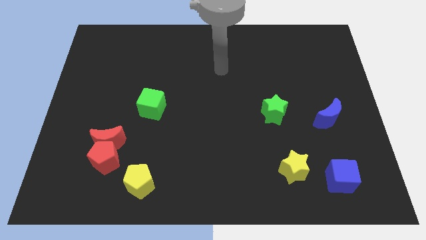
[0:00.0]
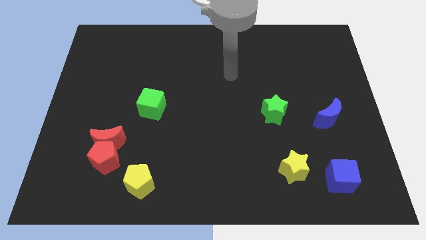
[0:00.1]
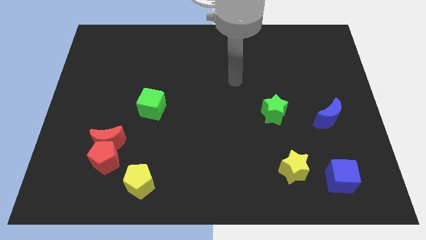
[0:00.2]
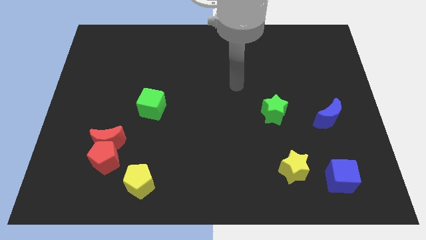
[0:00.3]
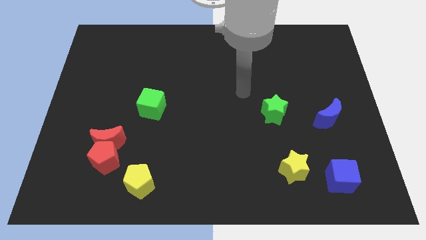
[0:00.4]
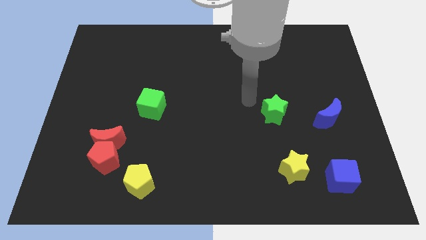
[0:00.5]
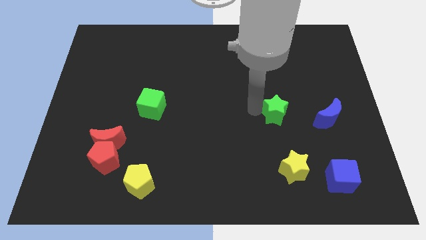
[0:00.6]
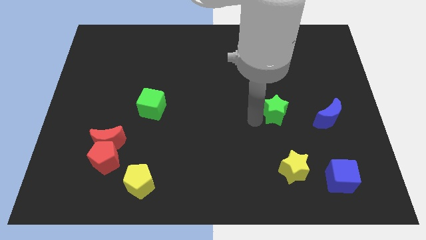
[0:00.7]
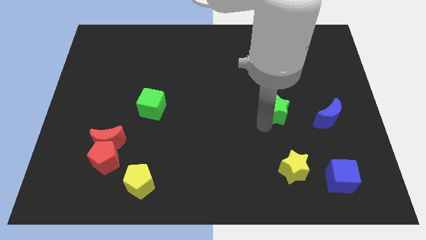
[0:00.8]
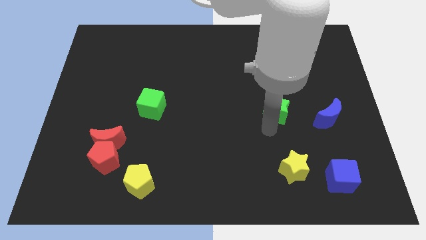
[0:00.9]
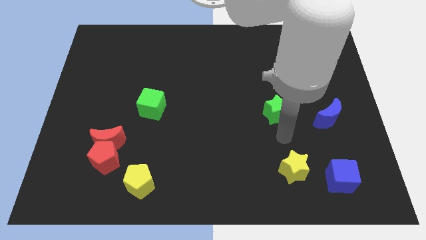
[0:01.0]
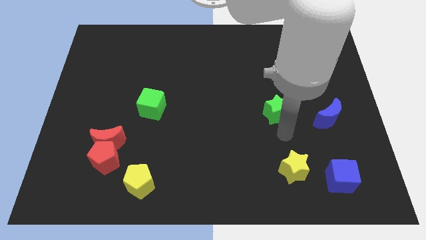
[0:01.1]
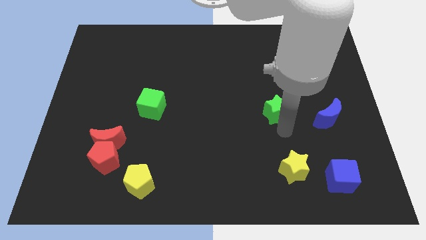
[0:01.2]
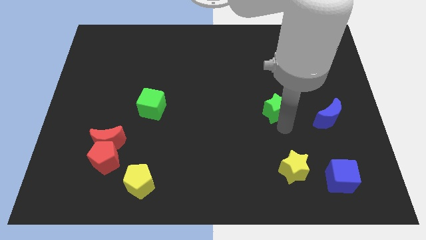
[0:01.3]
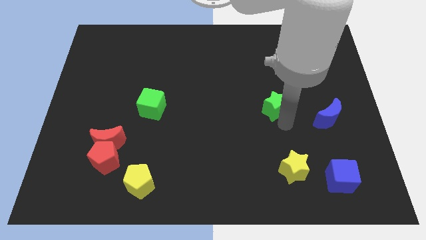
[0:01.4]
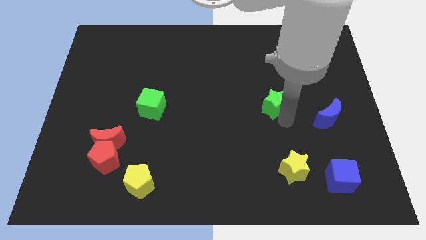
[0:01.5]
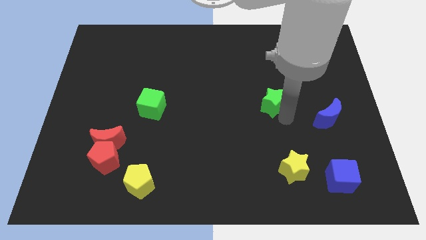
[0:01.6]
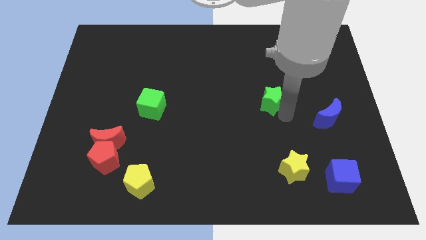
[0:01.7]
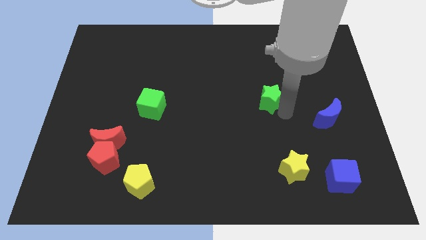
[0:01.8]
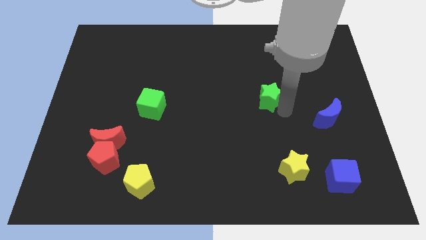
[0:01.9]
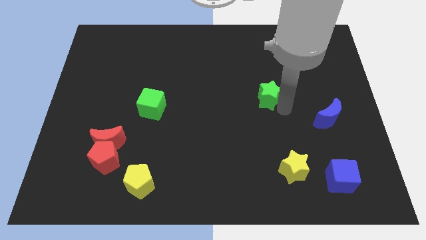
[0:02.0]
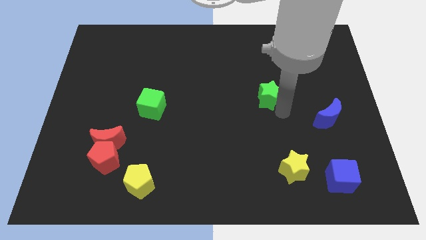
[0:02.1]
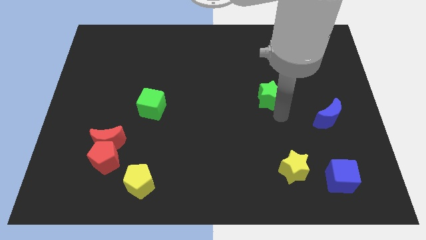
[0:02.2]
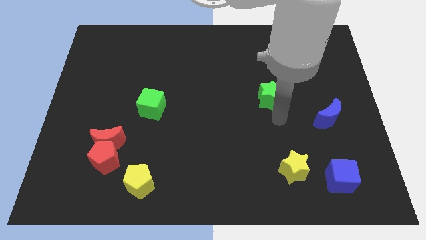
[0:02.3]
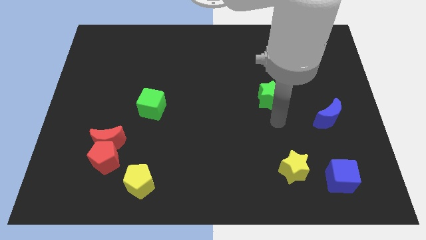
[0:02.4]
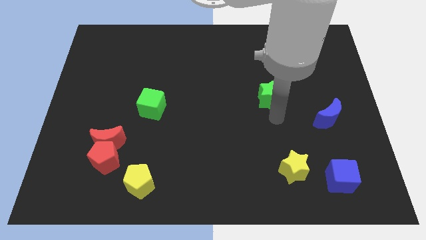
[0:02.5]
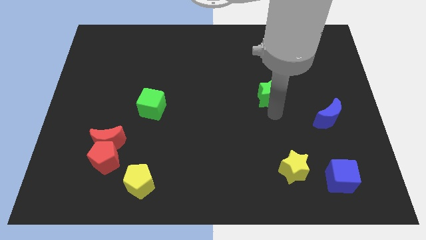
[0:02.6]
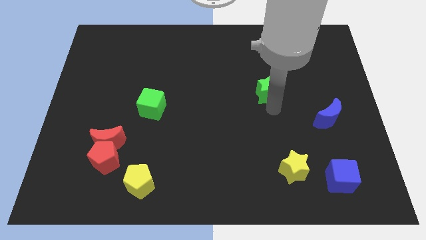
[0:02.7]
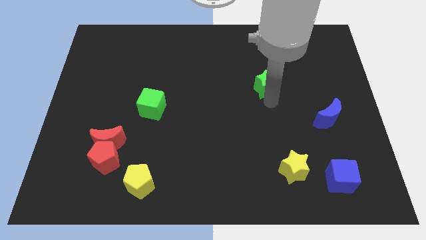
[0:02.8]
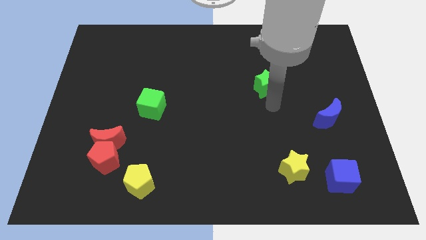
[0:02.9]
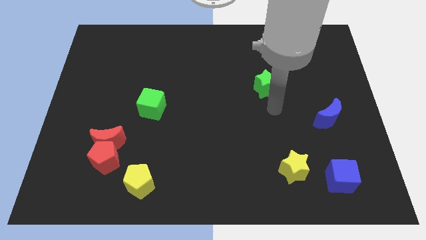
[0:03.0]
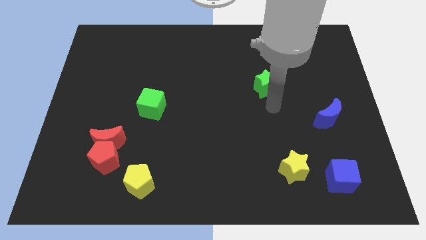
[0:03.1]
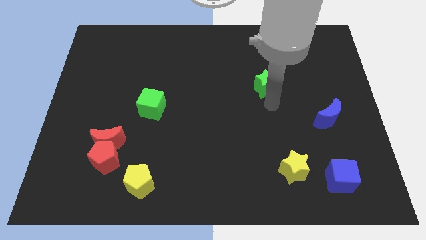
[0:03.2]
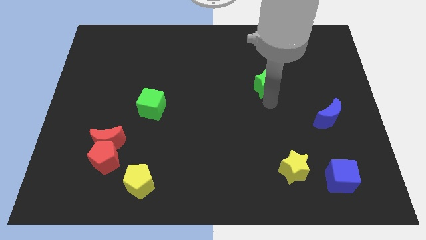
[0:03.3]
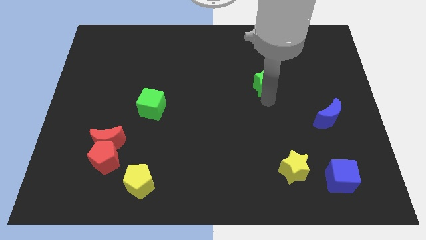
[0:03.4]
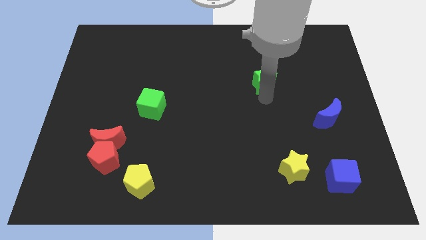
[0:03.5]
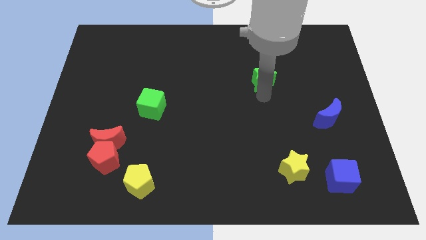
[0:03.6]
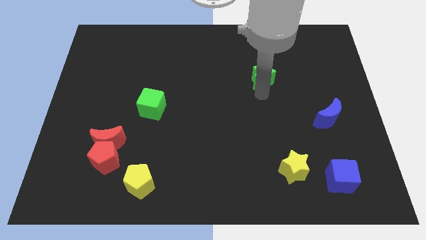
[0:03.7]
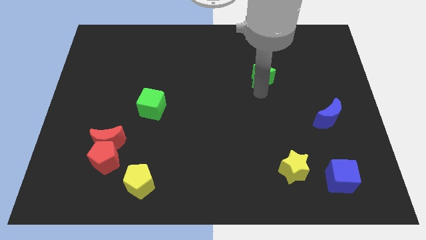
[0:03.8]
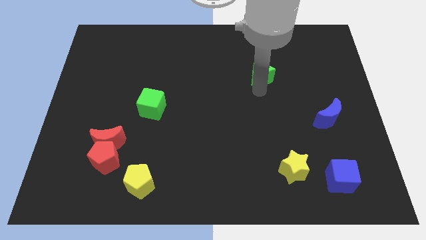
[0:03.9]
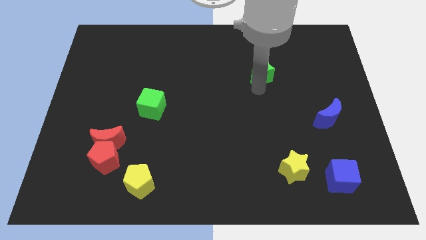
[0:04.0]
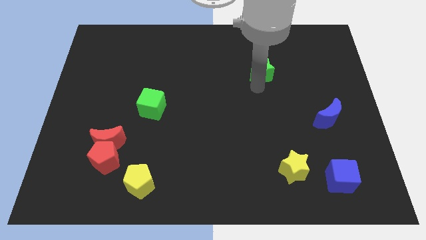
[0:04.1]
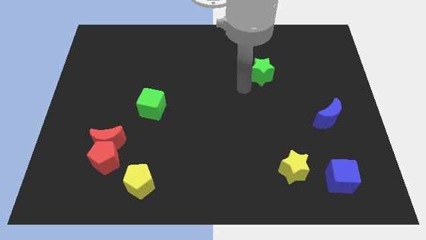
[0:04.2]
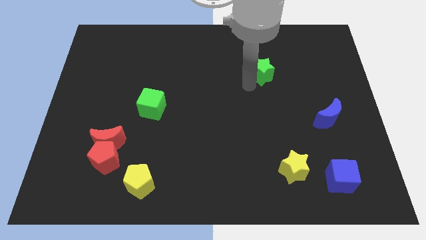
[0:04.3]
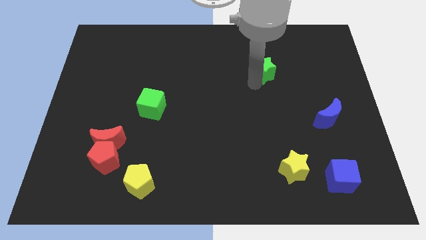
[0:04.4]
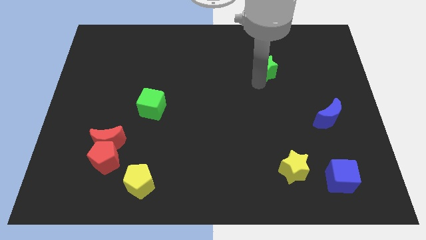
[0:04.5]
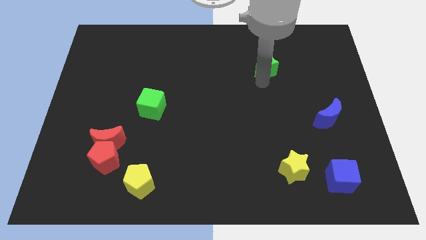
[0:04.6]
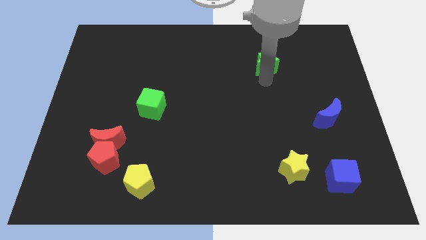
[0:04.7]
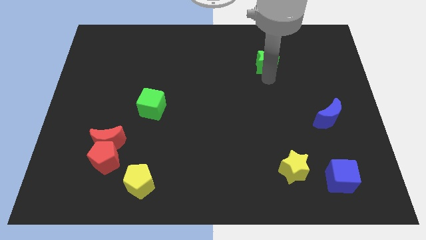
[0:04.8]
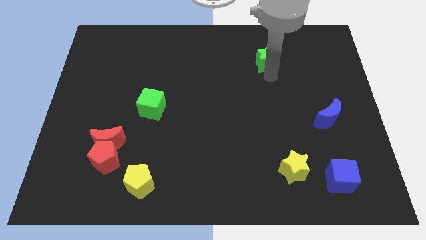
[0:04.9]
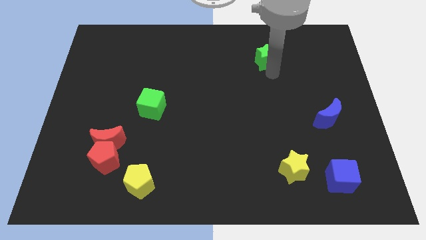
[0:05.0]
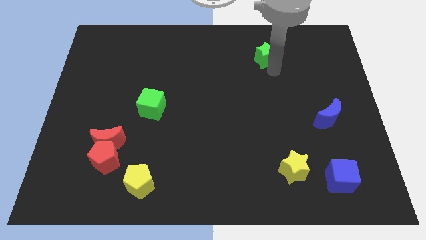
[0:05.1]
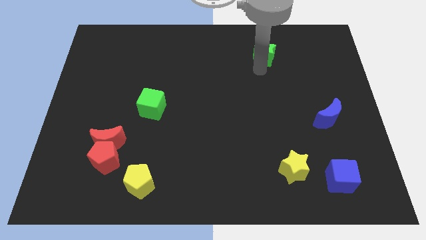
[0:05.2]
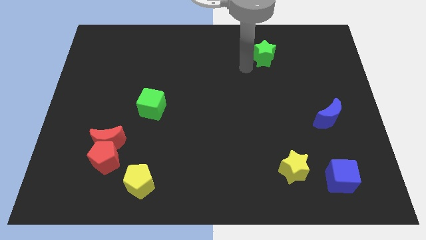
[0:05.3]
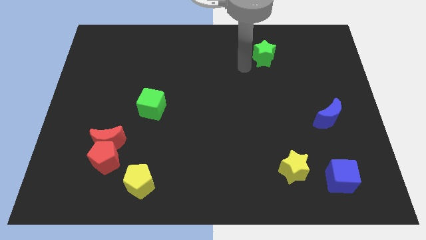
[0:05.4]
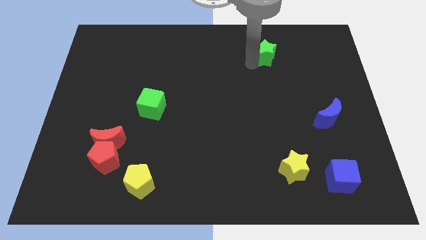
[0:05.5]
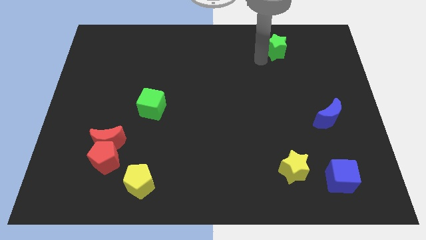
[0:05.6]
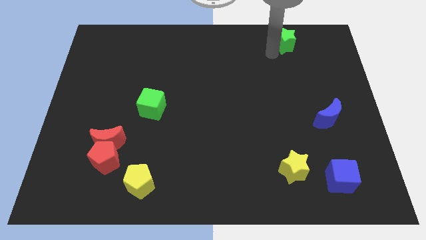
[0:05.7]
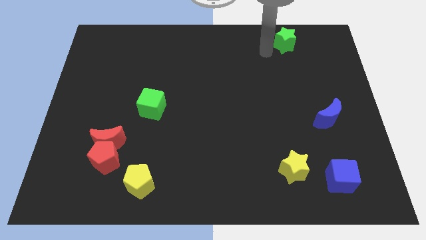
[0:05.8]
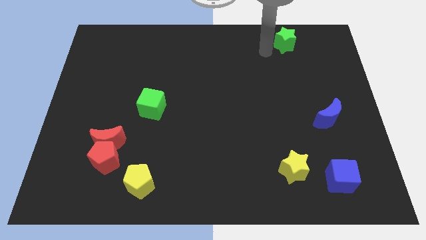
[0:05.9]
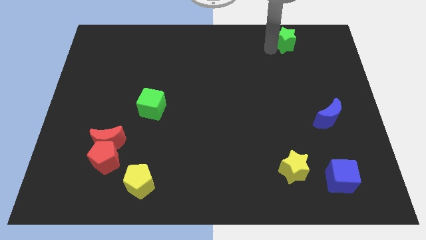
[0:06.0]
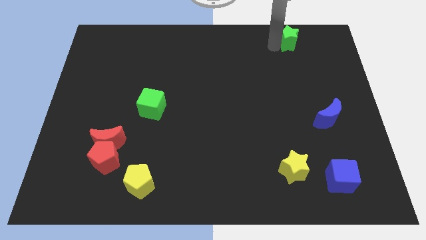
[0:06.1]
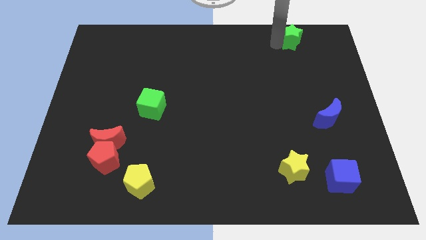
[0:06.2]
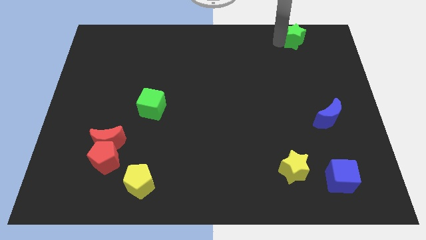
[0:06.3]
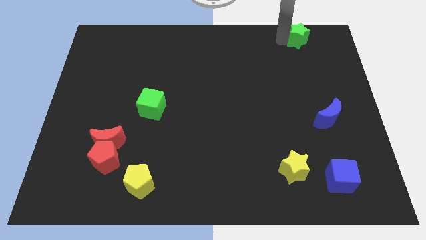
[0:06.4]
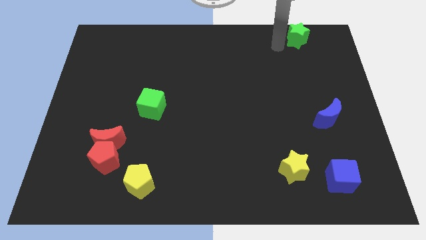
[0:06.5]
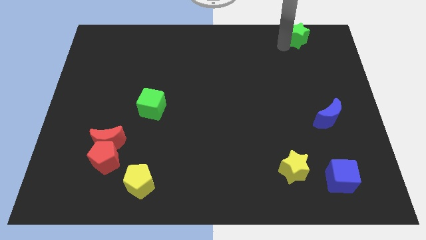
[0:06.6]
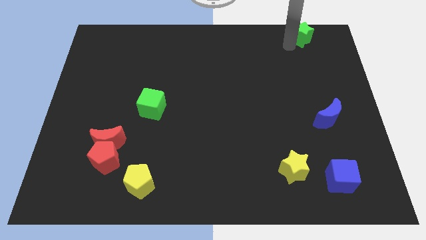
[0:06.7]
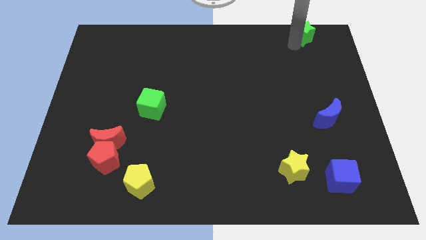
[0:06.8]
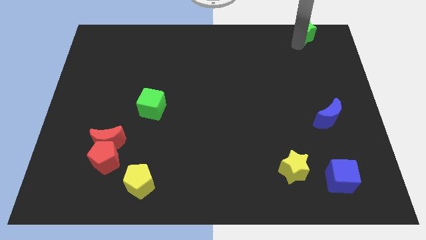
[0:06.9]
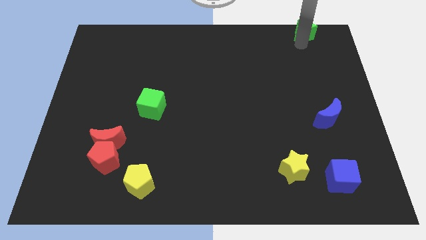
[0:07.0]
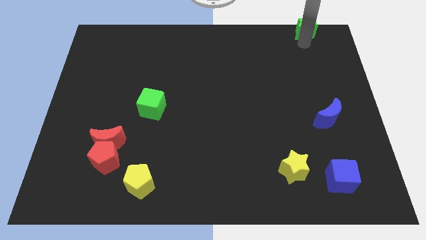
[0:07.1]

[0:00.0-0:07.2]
put the green star to the top right of the board
